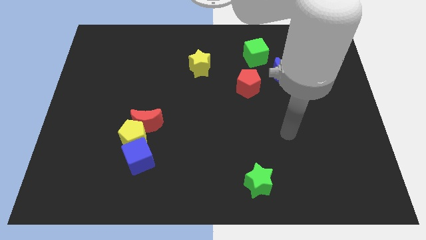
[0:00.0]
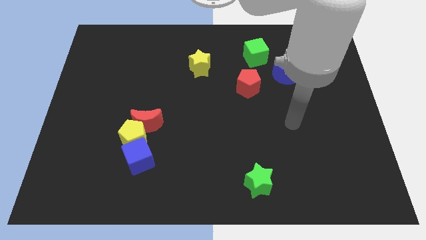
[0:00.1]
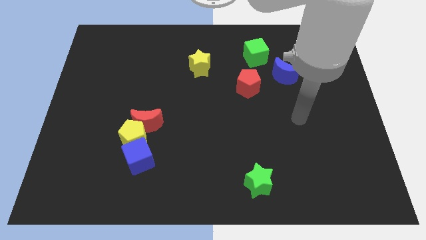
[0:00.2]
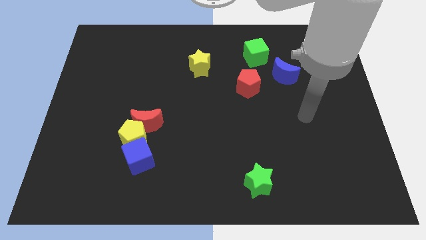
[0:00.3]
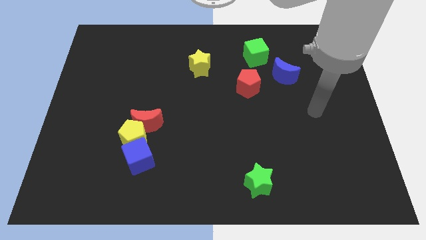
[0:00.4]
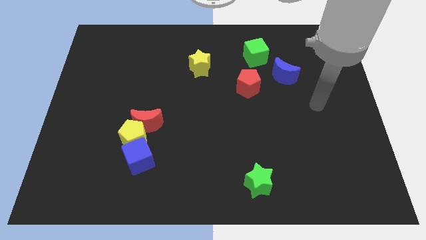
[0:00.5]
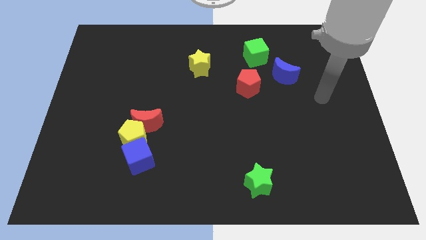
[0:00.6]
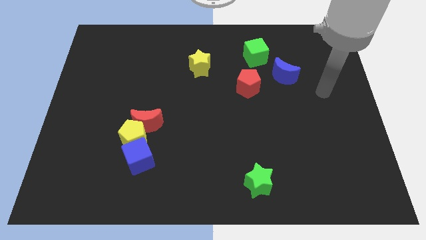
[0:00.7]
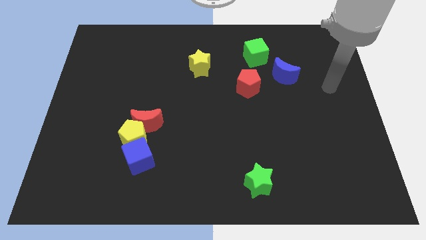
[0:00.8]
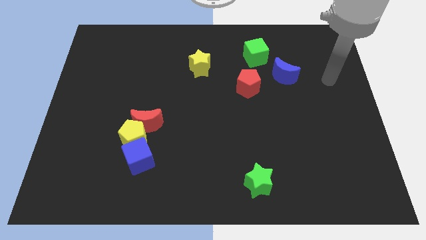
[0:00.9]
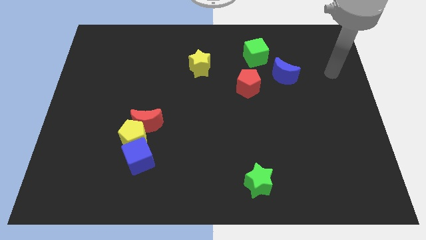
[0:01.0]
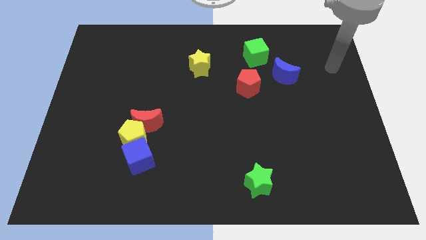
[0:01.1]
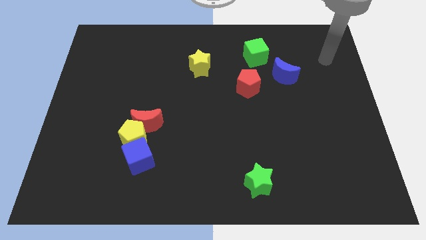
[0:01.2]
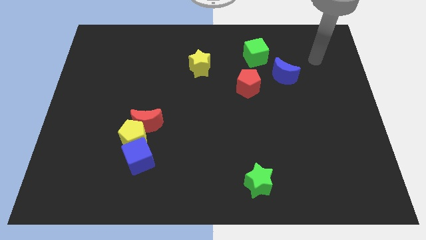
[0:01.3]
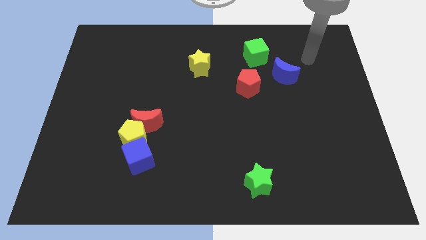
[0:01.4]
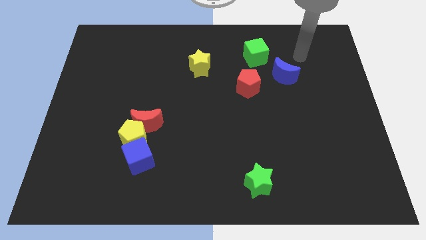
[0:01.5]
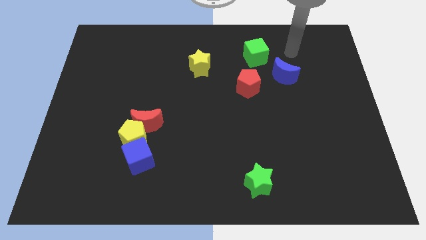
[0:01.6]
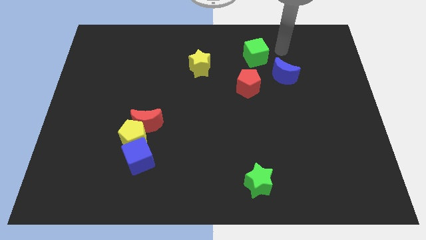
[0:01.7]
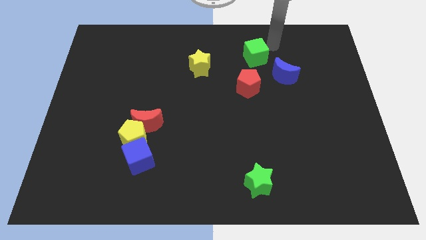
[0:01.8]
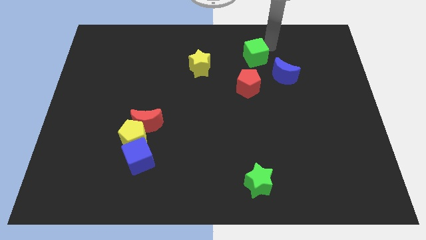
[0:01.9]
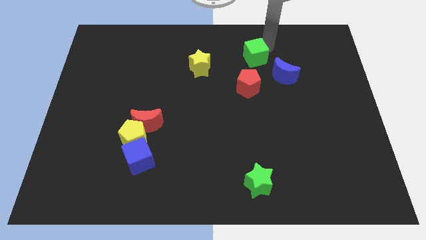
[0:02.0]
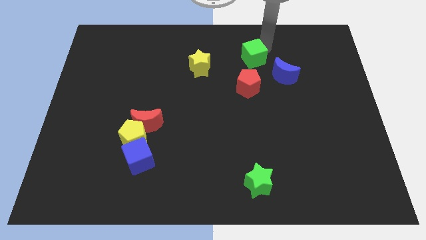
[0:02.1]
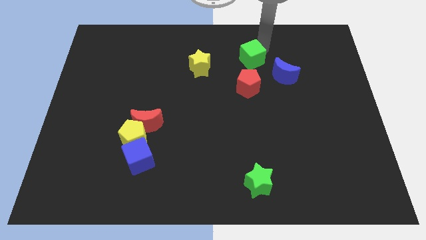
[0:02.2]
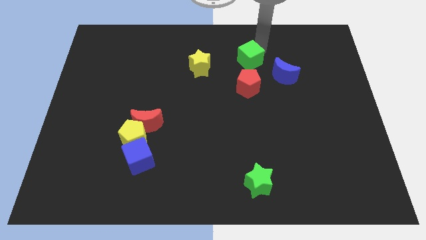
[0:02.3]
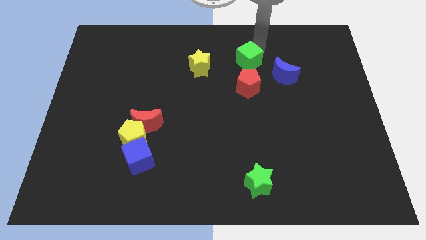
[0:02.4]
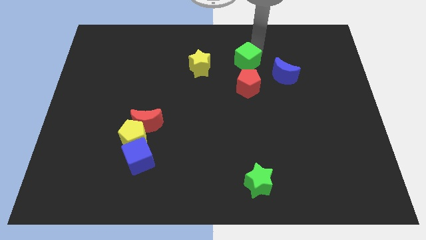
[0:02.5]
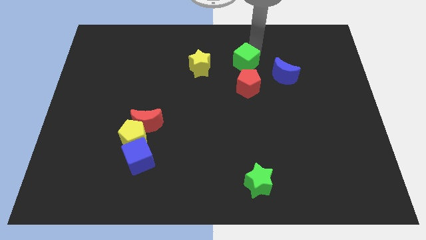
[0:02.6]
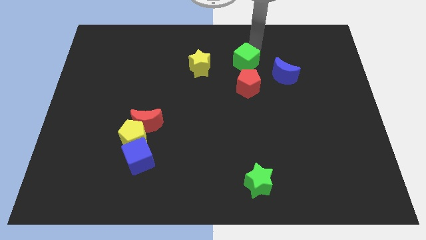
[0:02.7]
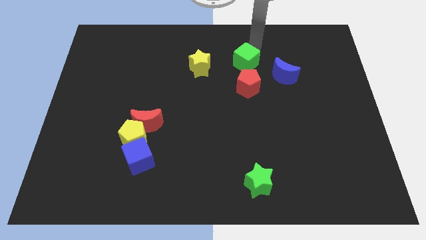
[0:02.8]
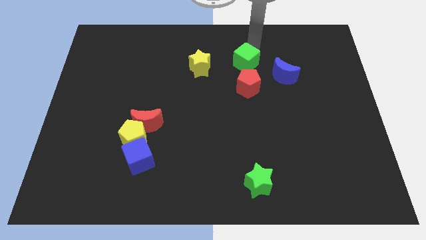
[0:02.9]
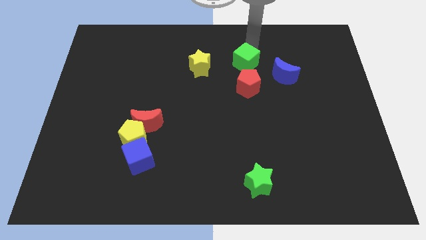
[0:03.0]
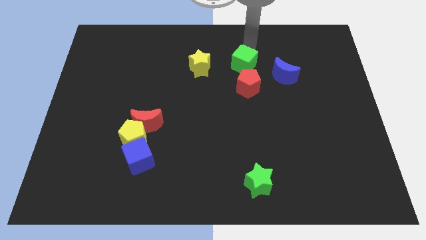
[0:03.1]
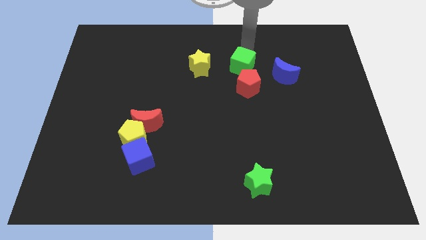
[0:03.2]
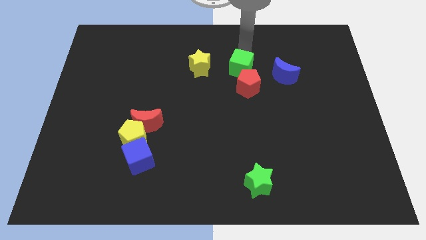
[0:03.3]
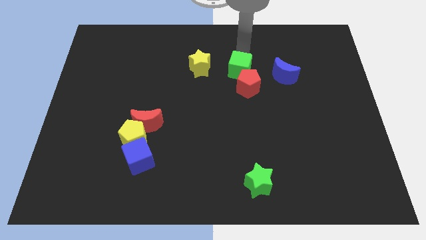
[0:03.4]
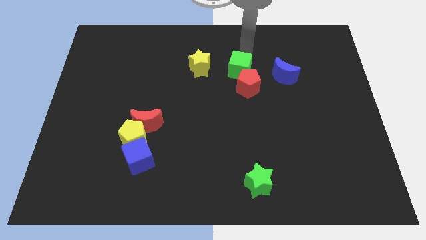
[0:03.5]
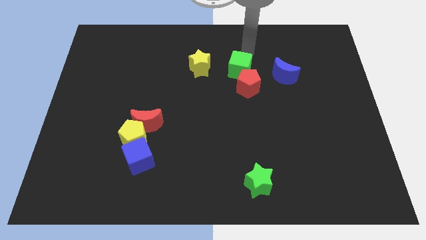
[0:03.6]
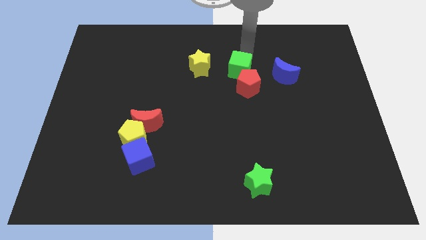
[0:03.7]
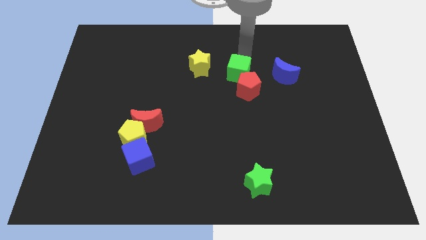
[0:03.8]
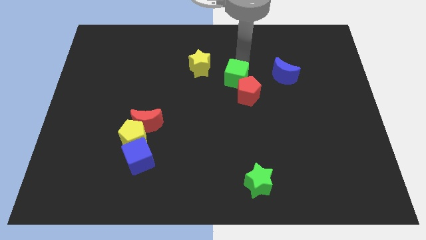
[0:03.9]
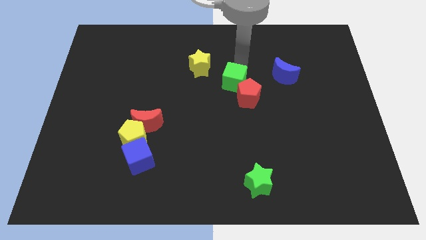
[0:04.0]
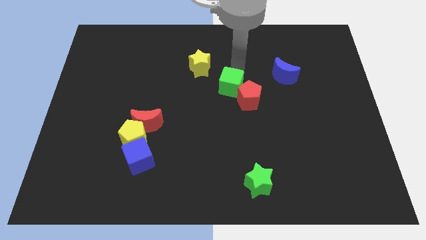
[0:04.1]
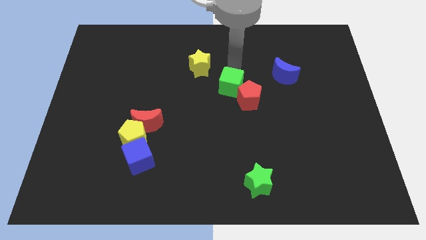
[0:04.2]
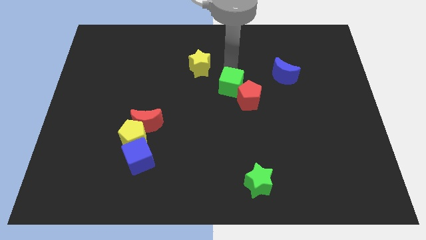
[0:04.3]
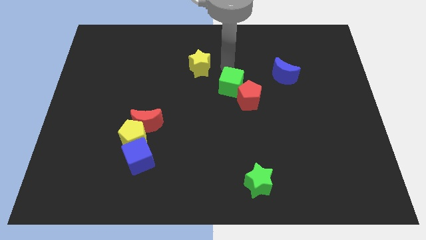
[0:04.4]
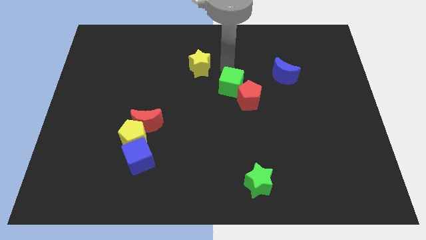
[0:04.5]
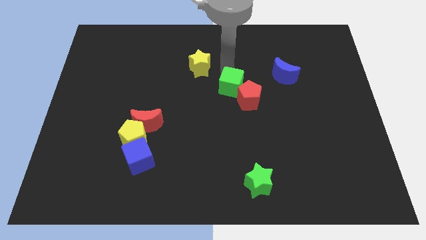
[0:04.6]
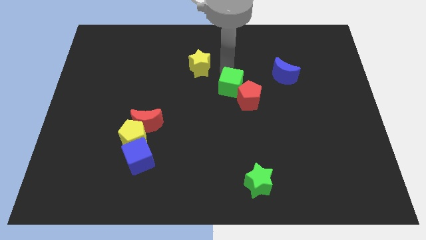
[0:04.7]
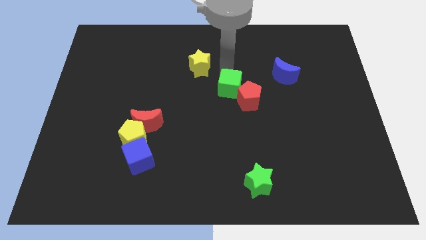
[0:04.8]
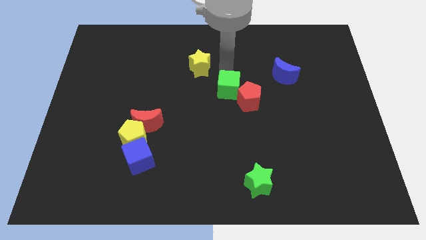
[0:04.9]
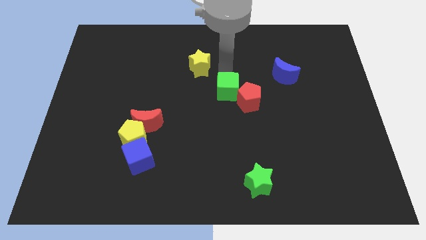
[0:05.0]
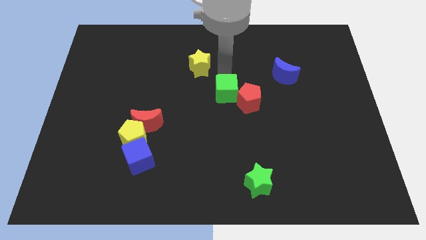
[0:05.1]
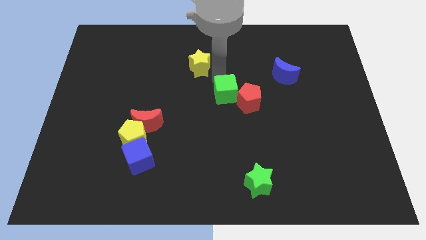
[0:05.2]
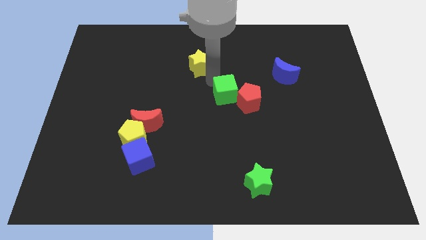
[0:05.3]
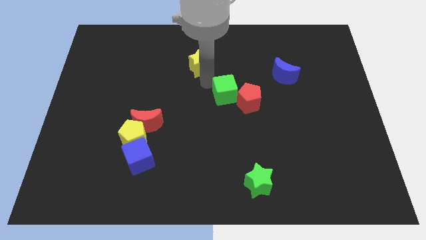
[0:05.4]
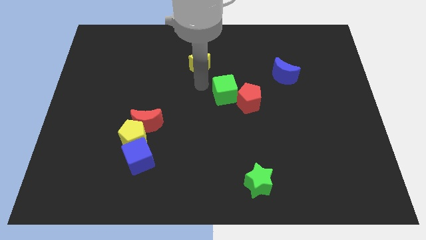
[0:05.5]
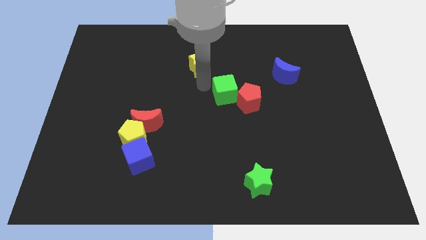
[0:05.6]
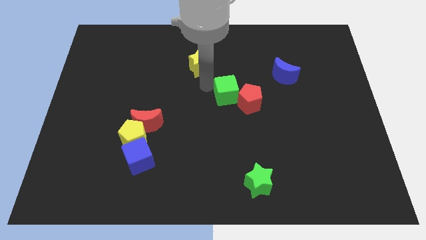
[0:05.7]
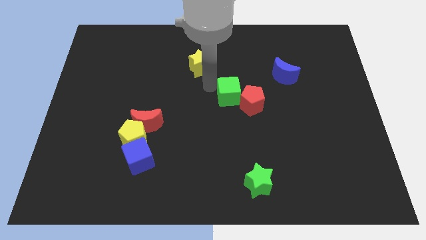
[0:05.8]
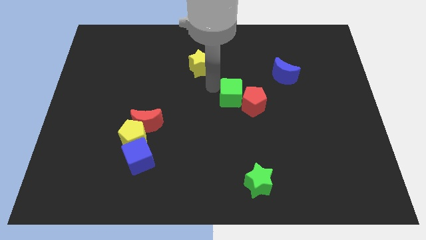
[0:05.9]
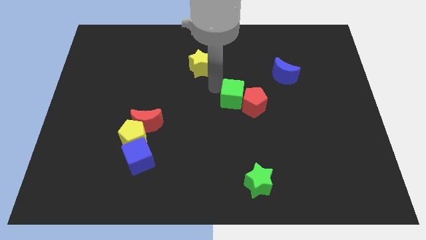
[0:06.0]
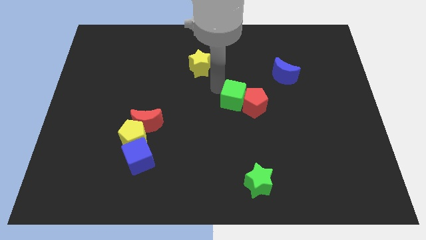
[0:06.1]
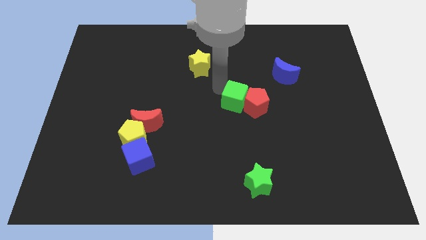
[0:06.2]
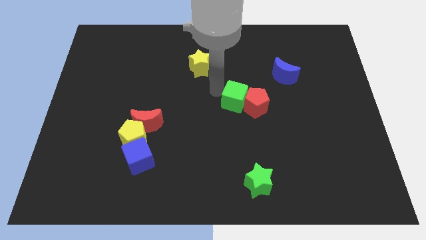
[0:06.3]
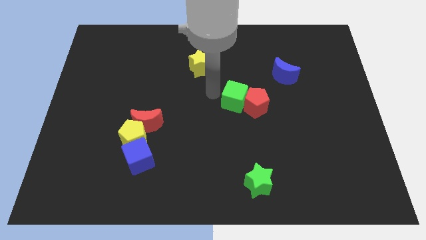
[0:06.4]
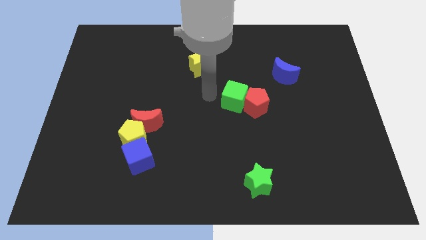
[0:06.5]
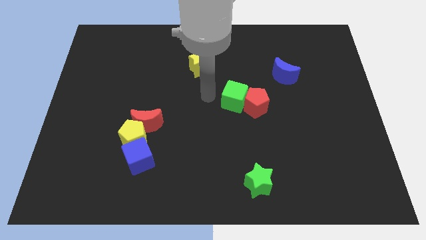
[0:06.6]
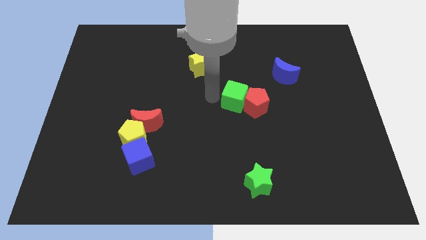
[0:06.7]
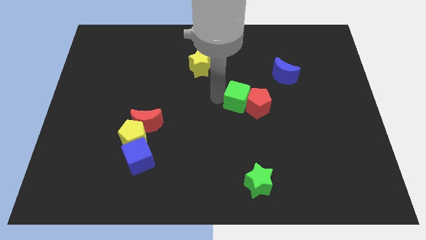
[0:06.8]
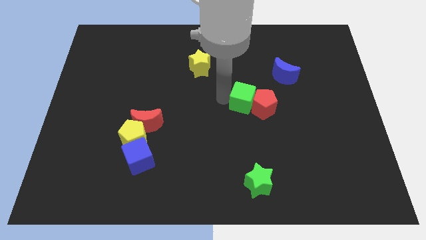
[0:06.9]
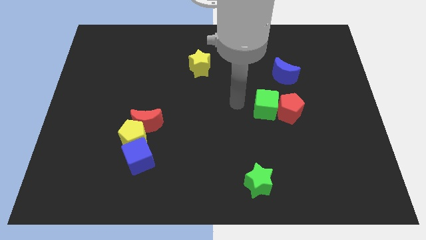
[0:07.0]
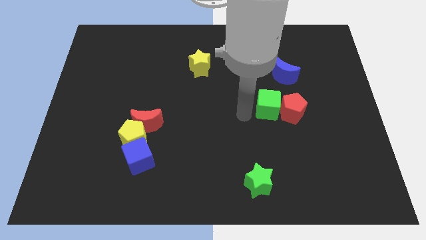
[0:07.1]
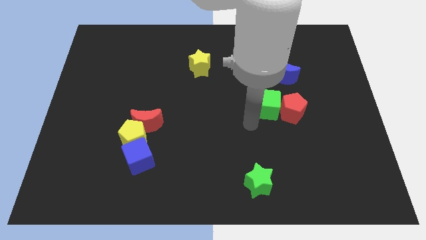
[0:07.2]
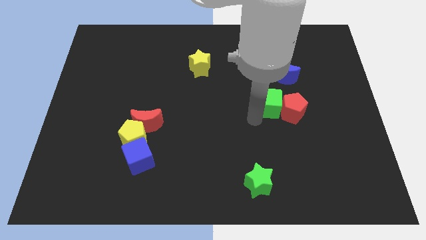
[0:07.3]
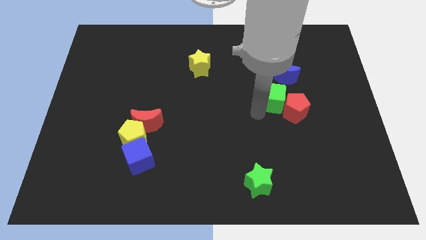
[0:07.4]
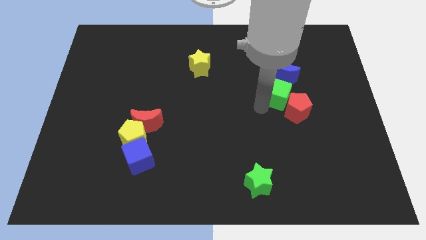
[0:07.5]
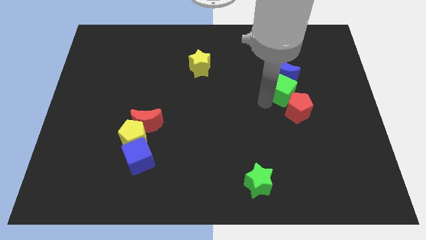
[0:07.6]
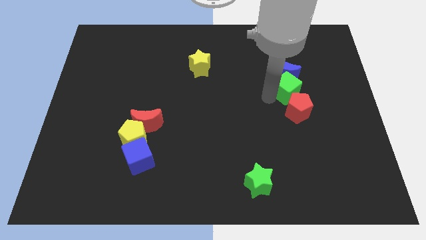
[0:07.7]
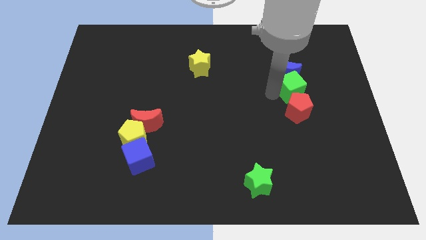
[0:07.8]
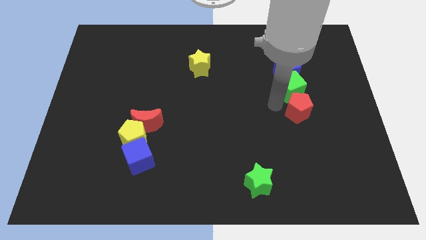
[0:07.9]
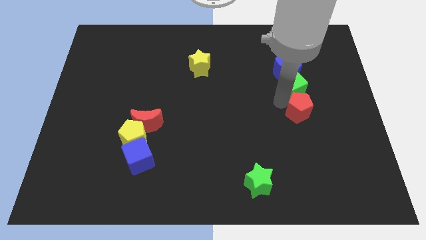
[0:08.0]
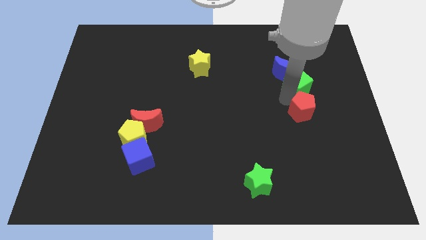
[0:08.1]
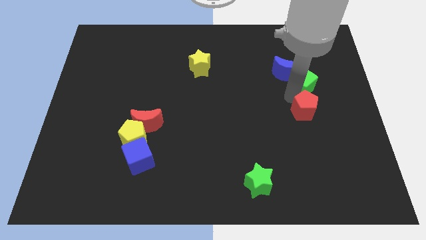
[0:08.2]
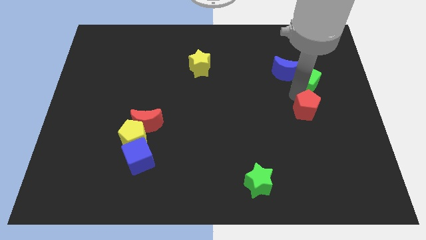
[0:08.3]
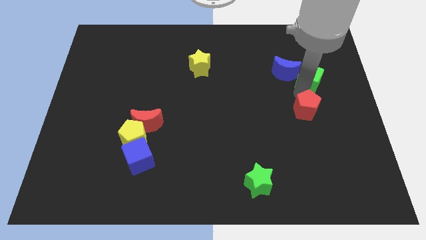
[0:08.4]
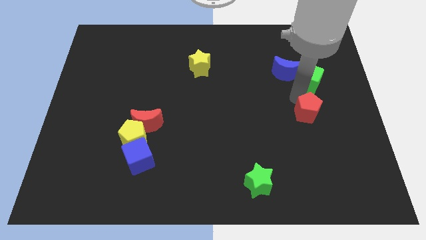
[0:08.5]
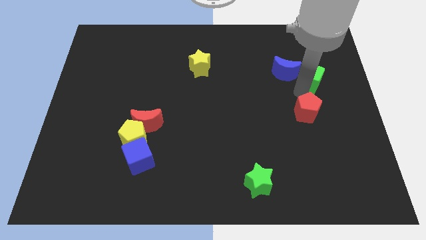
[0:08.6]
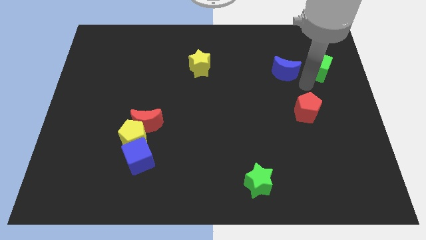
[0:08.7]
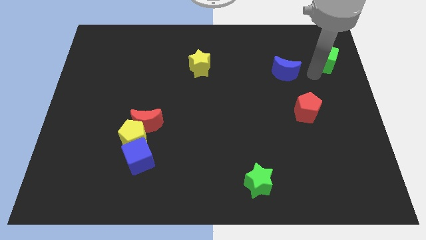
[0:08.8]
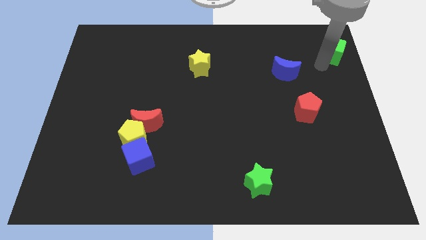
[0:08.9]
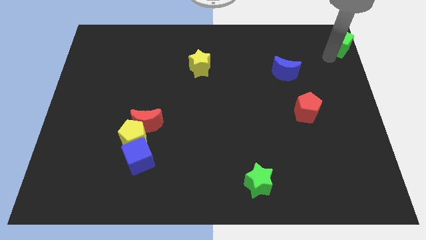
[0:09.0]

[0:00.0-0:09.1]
move the green cube to the top right of the board
